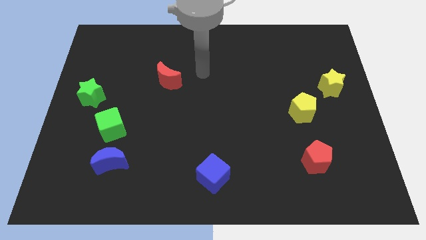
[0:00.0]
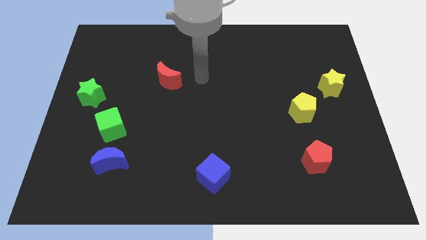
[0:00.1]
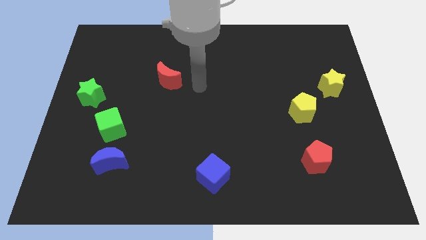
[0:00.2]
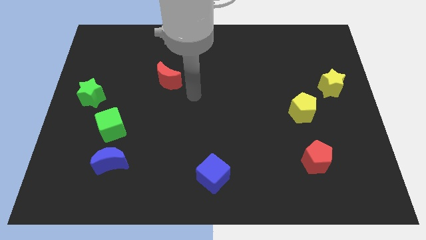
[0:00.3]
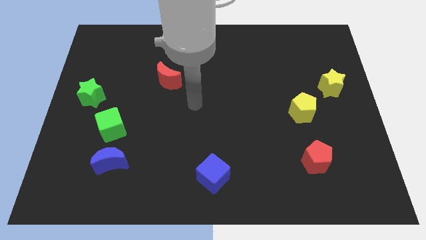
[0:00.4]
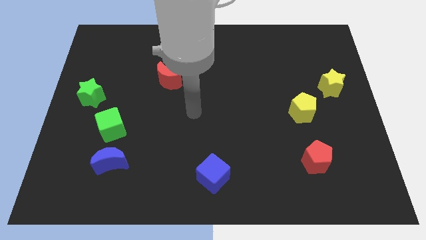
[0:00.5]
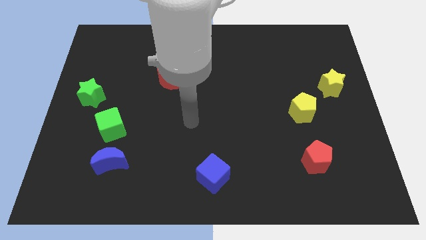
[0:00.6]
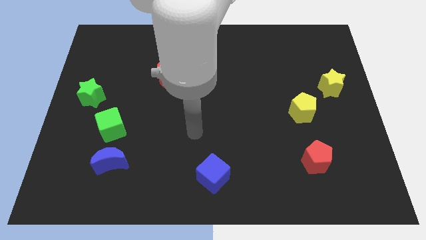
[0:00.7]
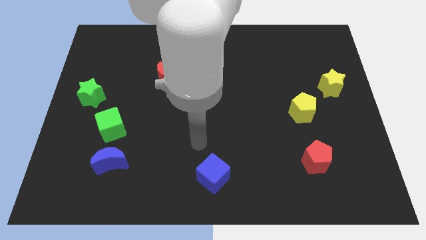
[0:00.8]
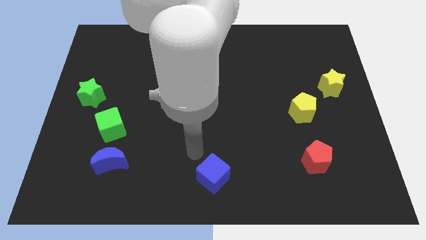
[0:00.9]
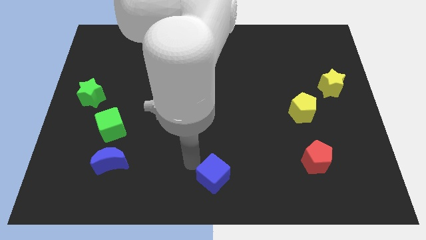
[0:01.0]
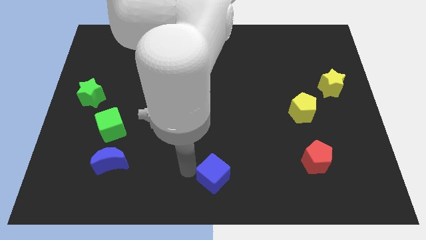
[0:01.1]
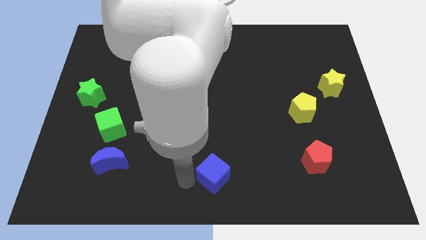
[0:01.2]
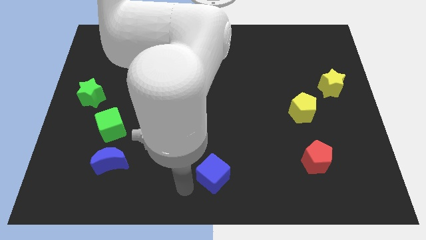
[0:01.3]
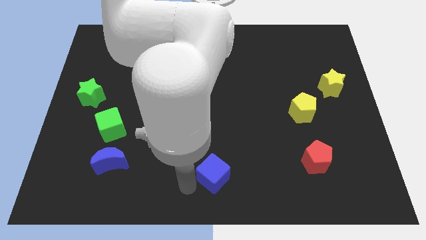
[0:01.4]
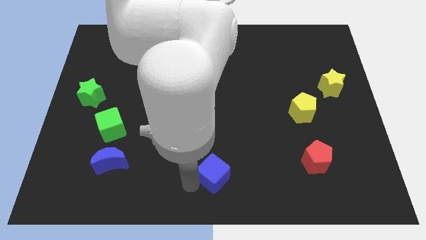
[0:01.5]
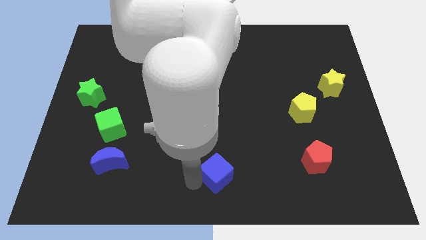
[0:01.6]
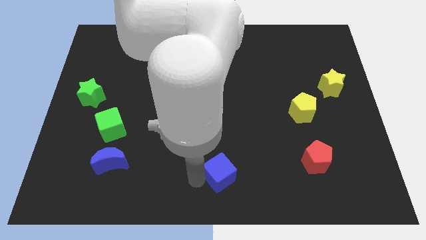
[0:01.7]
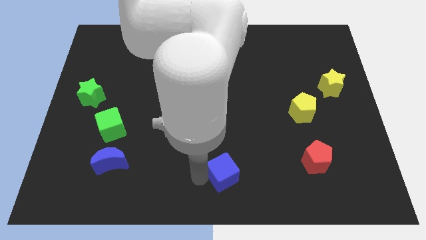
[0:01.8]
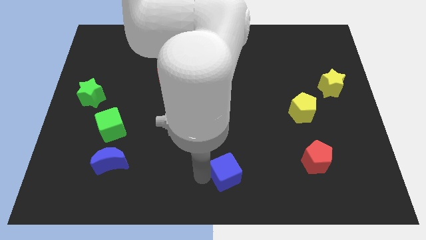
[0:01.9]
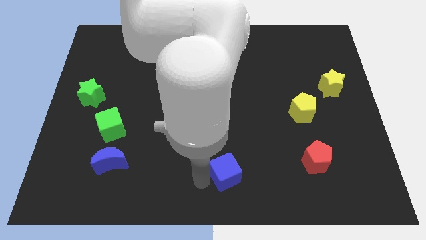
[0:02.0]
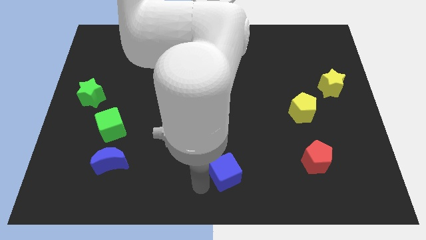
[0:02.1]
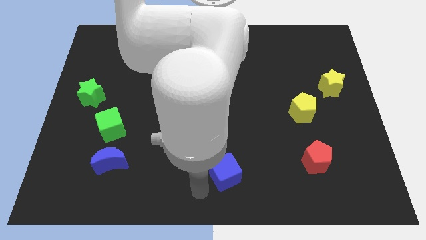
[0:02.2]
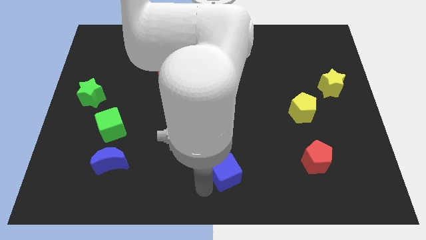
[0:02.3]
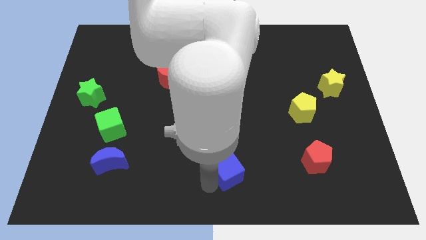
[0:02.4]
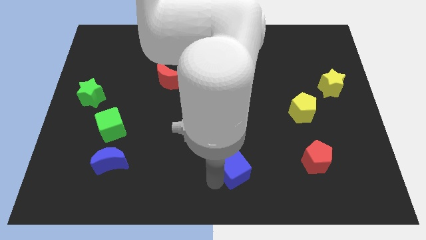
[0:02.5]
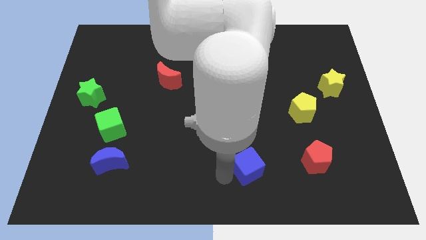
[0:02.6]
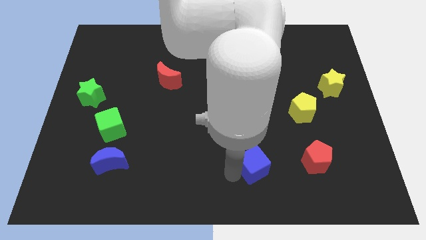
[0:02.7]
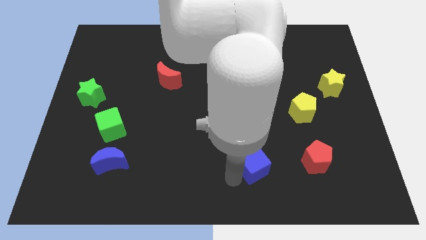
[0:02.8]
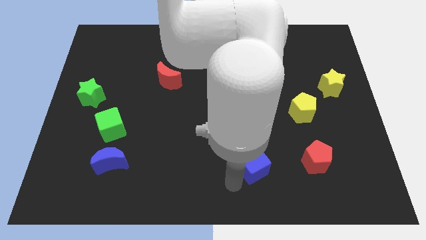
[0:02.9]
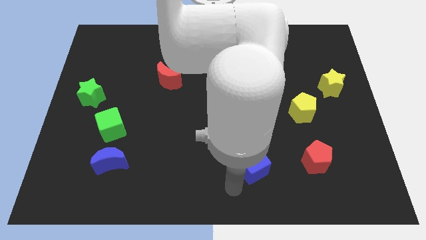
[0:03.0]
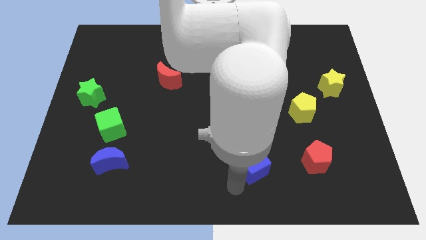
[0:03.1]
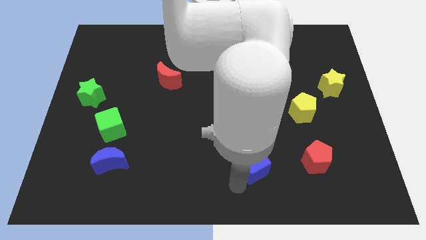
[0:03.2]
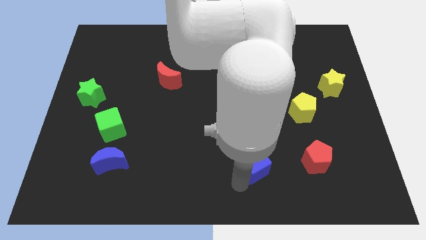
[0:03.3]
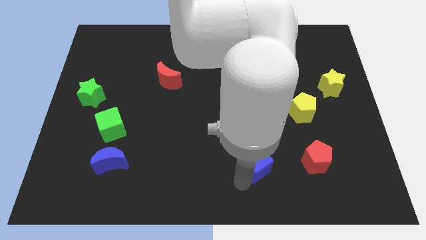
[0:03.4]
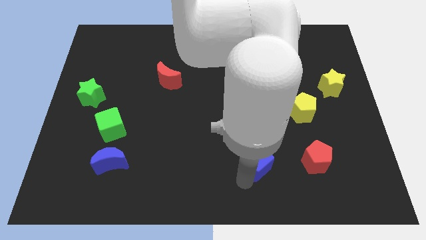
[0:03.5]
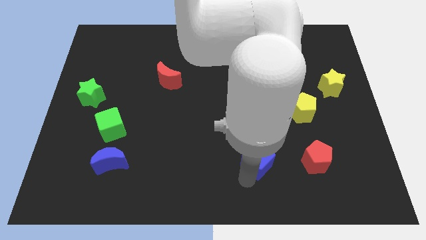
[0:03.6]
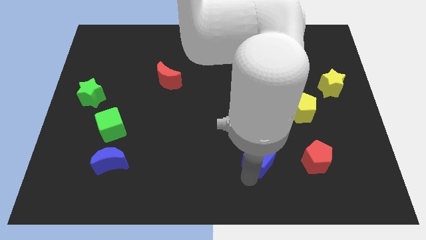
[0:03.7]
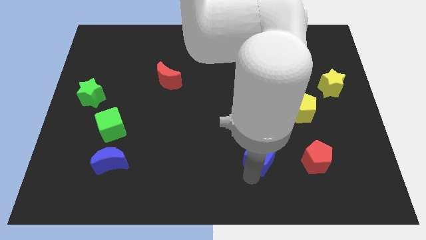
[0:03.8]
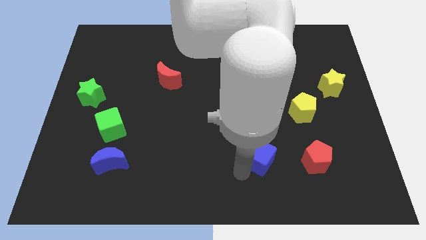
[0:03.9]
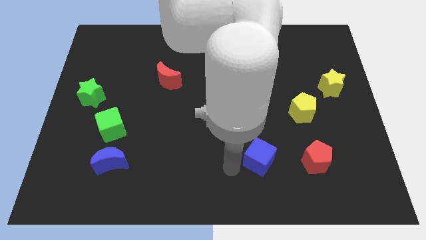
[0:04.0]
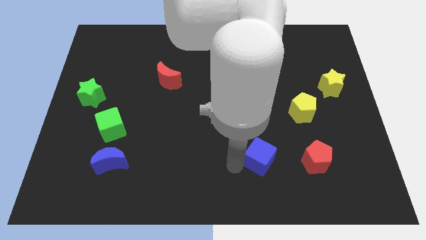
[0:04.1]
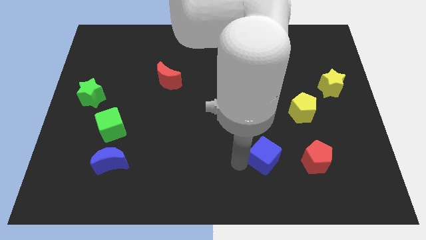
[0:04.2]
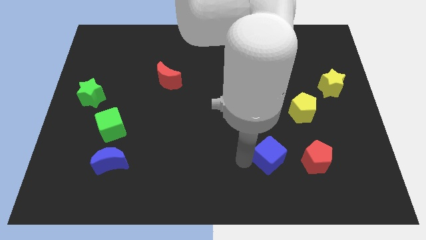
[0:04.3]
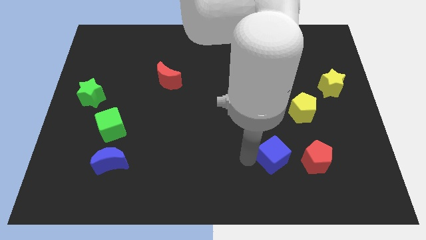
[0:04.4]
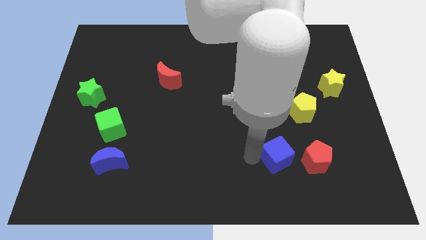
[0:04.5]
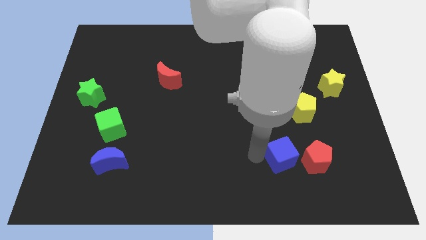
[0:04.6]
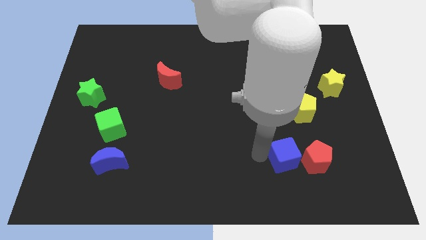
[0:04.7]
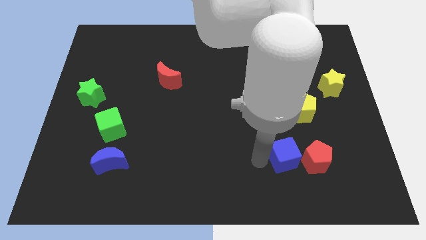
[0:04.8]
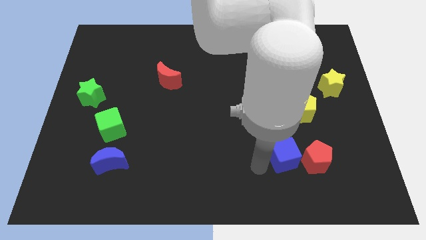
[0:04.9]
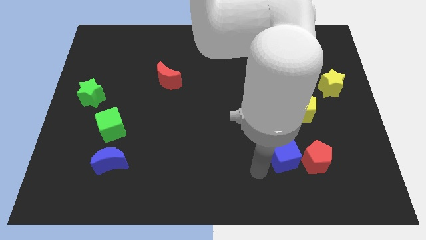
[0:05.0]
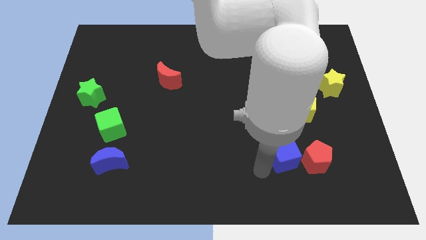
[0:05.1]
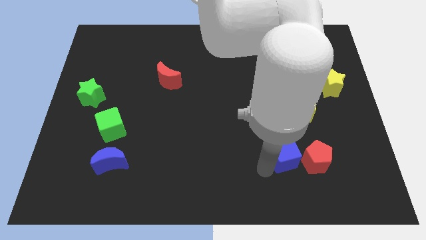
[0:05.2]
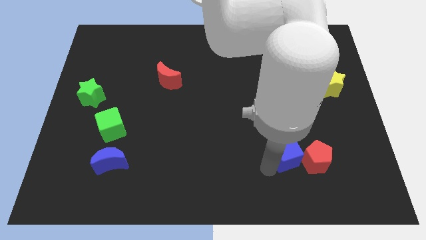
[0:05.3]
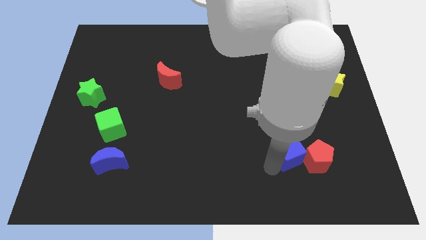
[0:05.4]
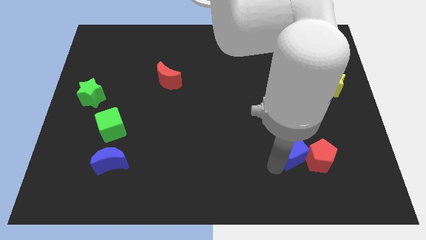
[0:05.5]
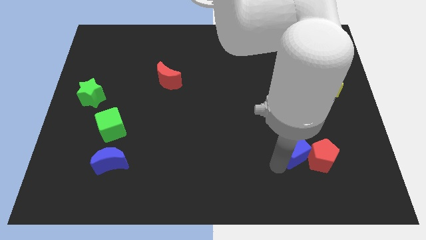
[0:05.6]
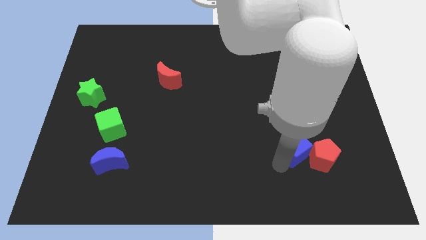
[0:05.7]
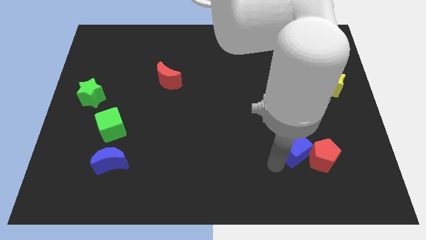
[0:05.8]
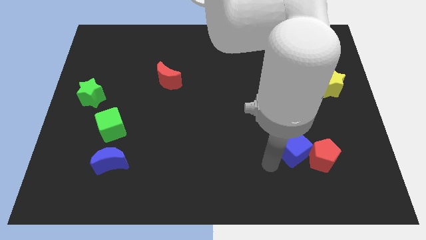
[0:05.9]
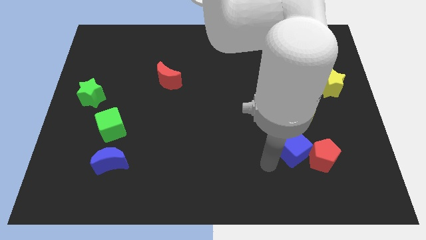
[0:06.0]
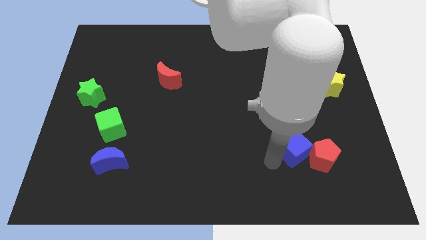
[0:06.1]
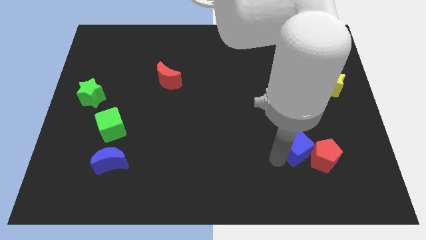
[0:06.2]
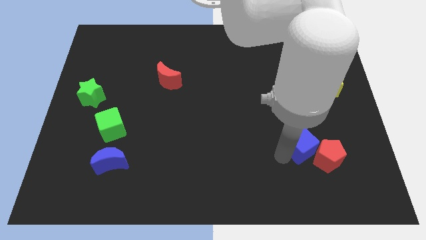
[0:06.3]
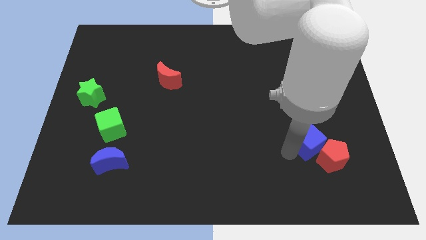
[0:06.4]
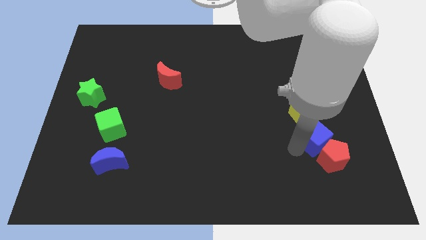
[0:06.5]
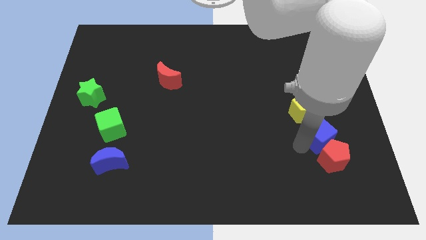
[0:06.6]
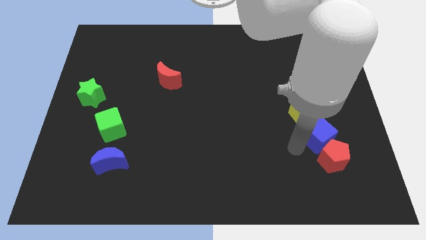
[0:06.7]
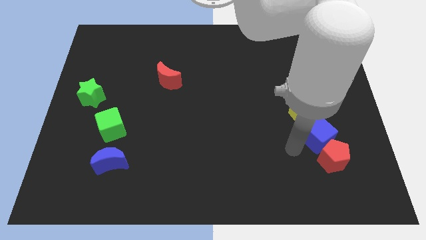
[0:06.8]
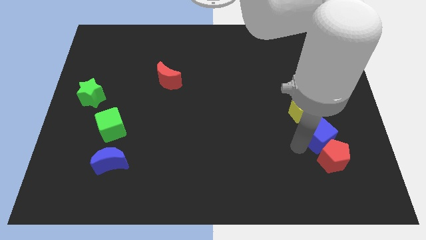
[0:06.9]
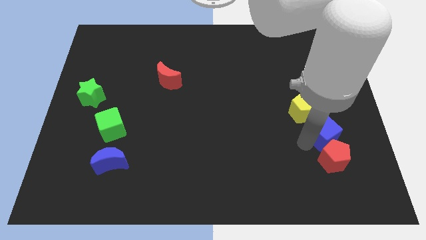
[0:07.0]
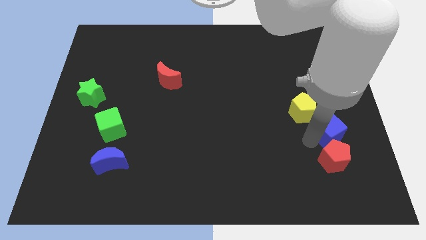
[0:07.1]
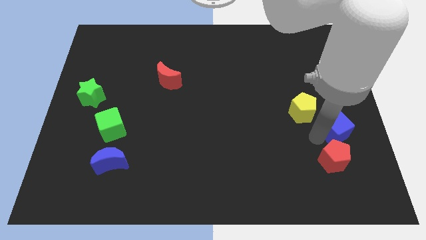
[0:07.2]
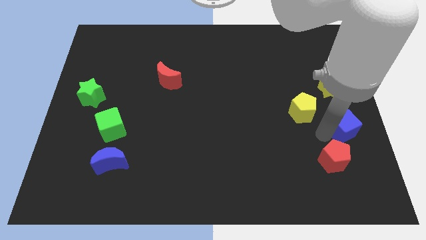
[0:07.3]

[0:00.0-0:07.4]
slide the blue cube to the center right
